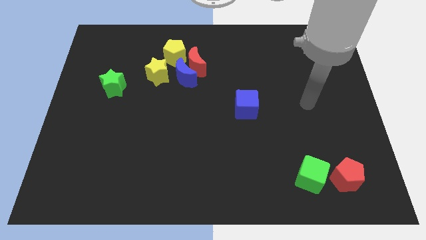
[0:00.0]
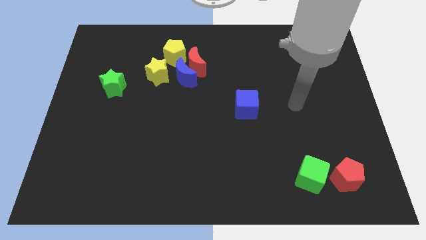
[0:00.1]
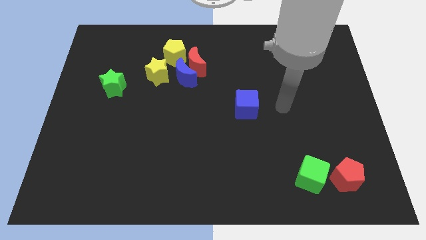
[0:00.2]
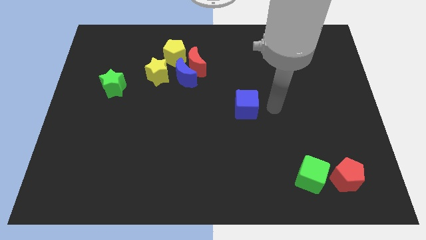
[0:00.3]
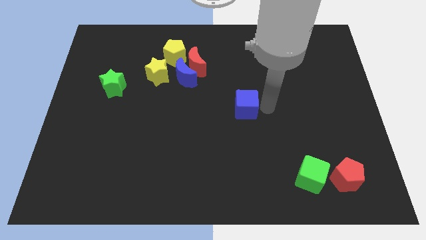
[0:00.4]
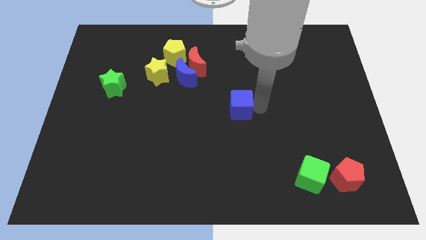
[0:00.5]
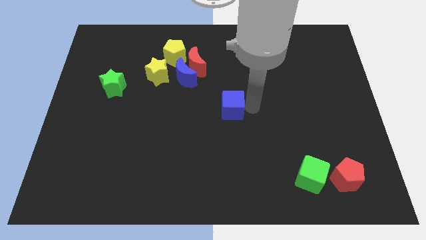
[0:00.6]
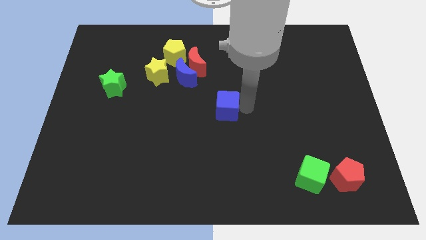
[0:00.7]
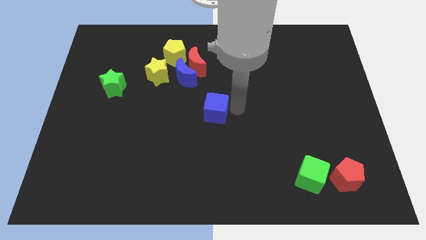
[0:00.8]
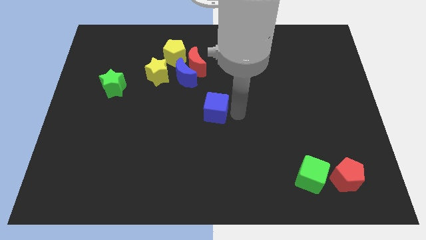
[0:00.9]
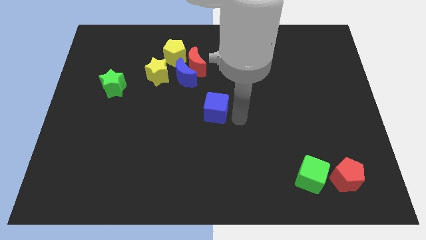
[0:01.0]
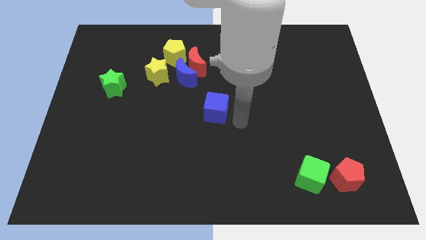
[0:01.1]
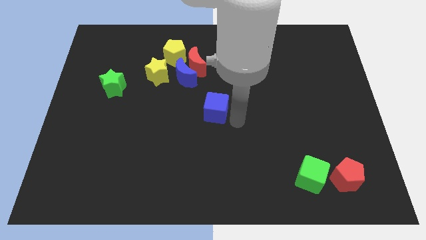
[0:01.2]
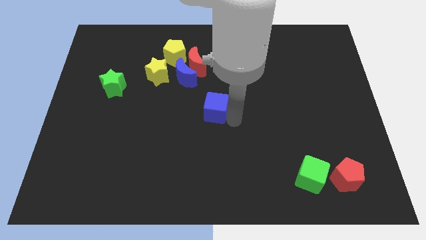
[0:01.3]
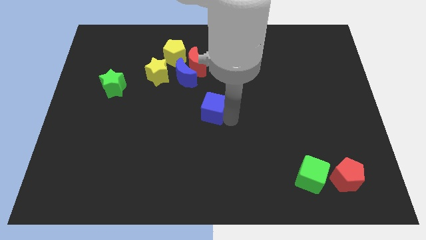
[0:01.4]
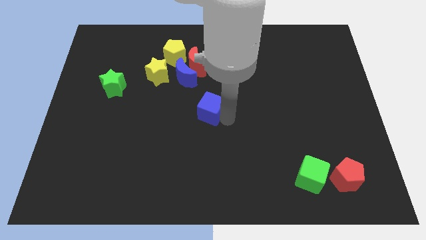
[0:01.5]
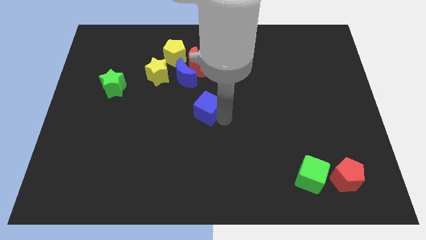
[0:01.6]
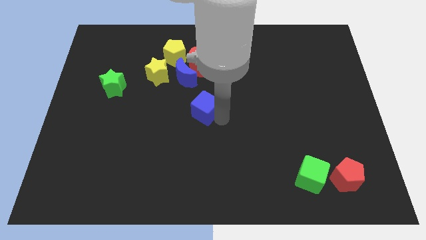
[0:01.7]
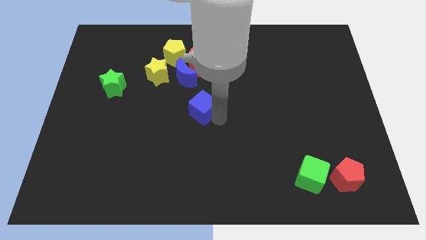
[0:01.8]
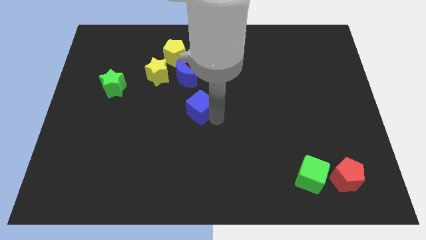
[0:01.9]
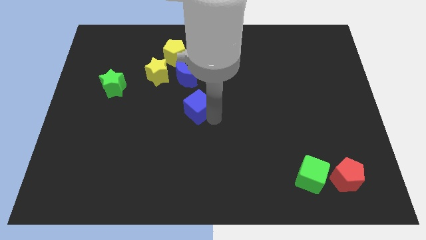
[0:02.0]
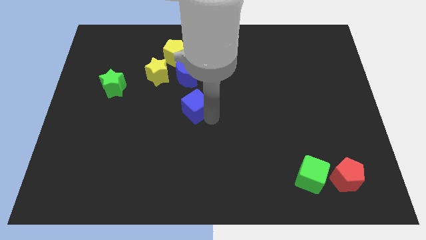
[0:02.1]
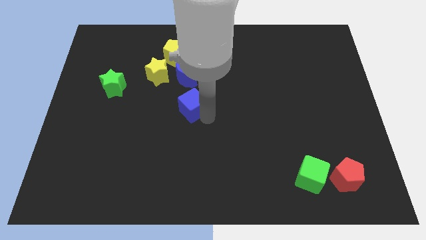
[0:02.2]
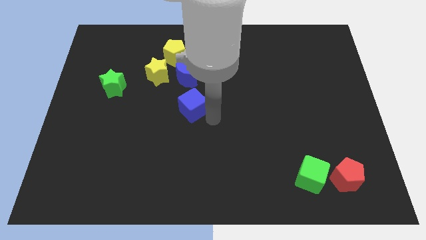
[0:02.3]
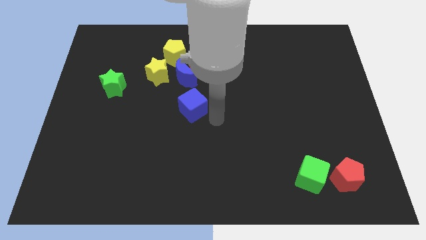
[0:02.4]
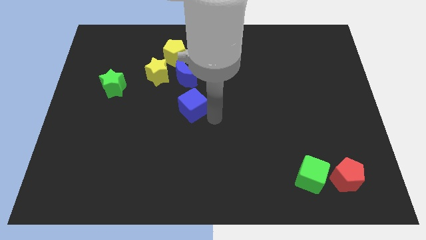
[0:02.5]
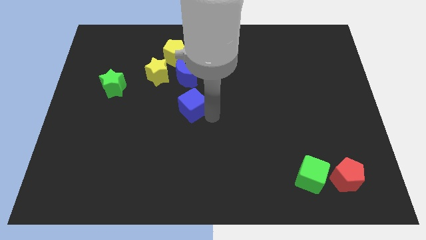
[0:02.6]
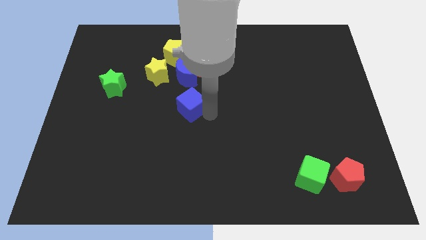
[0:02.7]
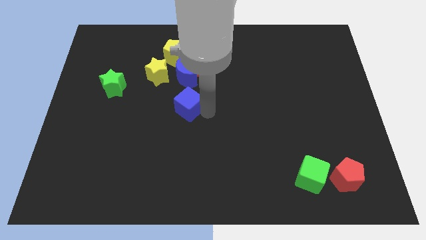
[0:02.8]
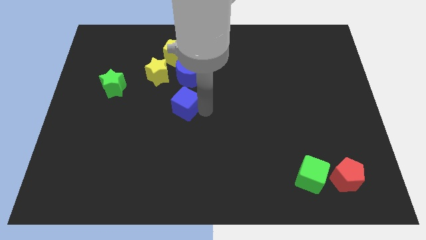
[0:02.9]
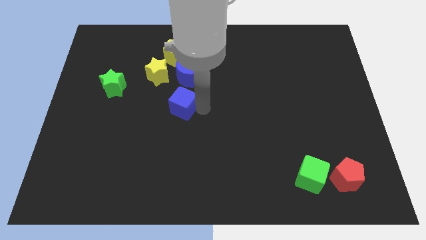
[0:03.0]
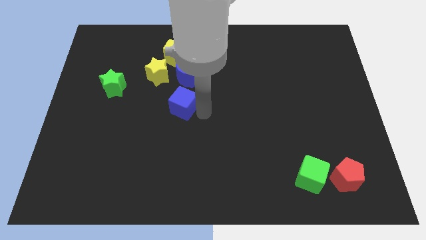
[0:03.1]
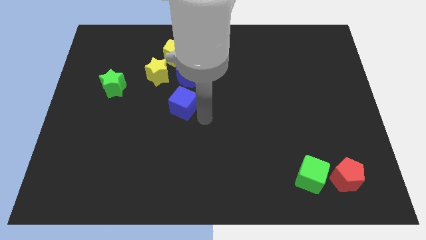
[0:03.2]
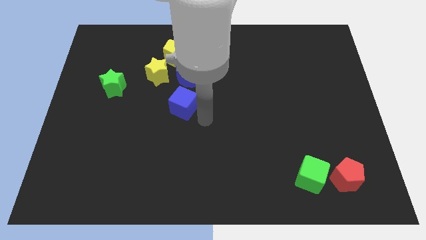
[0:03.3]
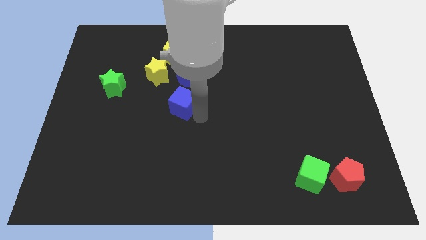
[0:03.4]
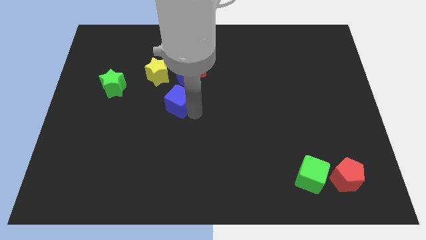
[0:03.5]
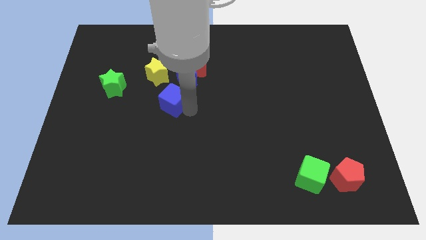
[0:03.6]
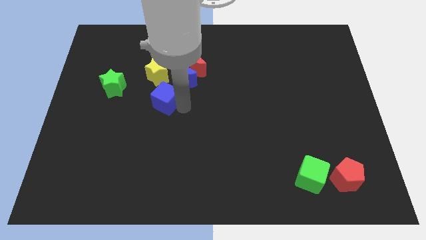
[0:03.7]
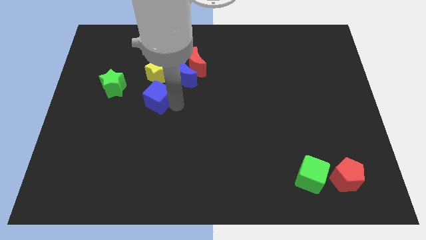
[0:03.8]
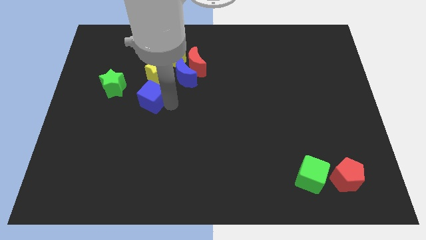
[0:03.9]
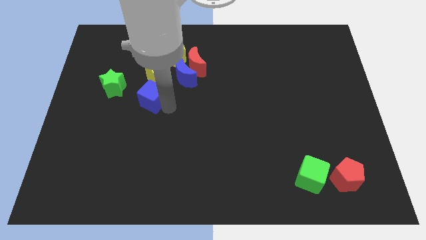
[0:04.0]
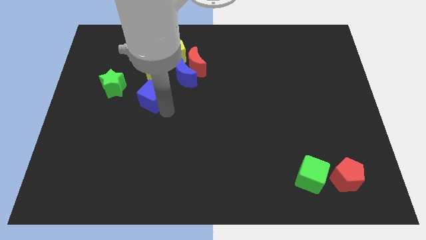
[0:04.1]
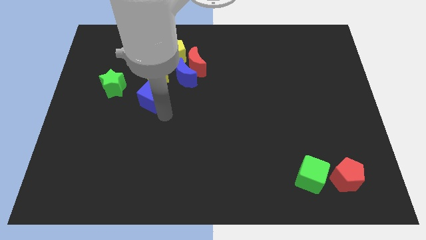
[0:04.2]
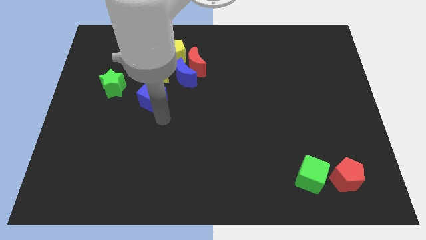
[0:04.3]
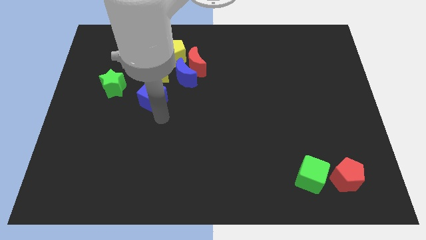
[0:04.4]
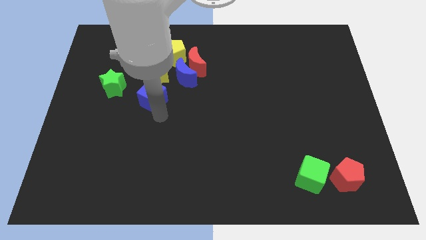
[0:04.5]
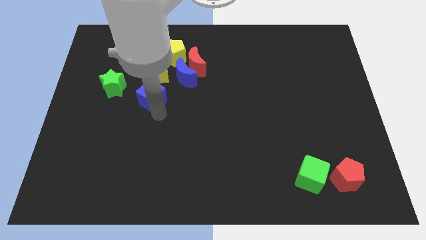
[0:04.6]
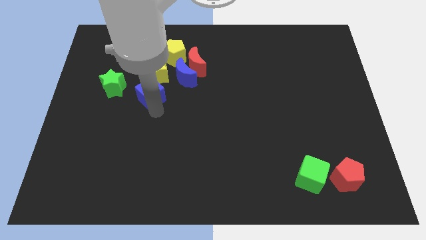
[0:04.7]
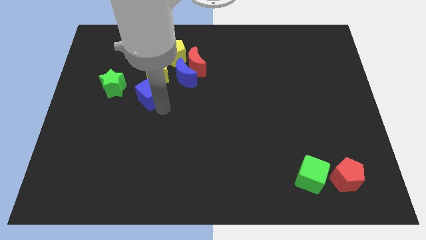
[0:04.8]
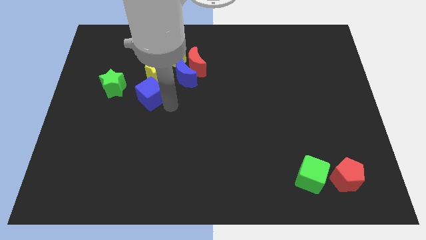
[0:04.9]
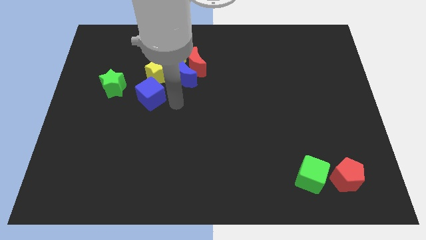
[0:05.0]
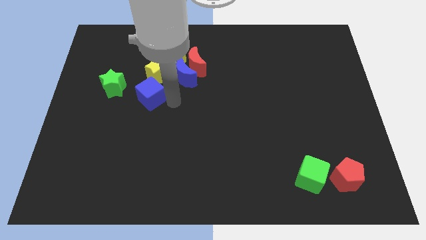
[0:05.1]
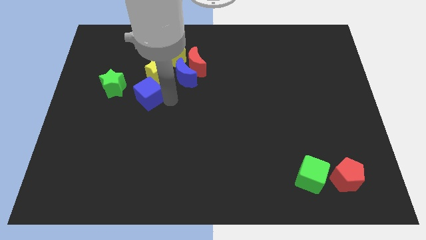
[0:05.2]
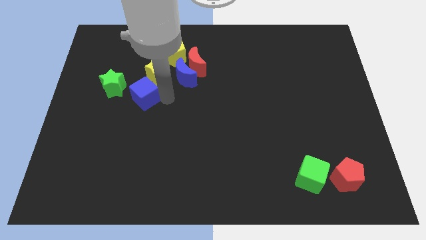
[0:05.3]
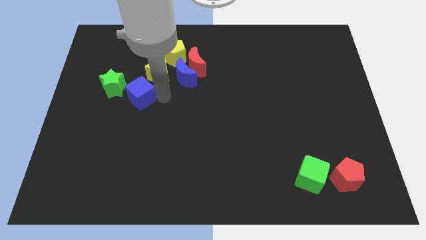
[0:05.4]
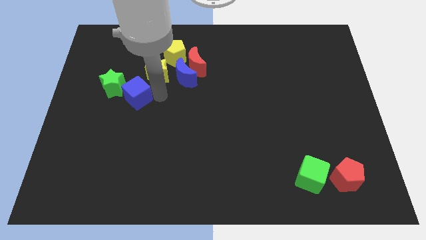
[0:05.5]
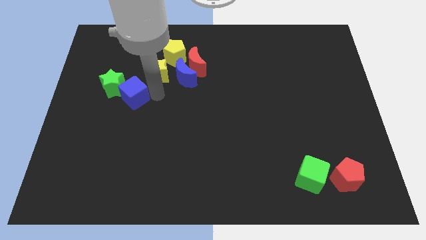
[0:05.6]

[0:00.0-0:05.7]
slide the blue cube next to the green star

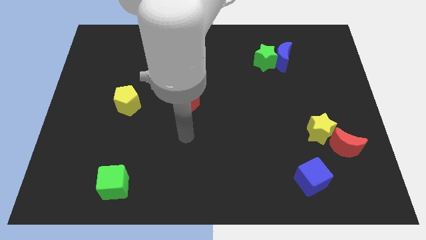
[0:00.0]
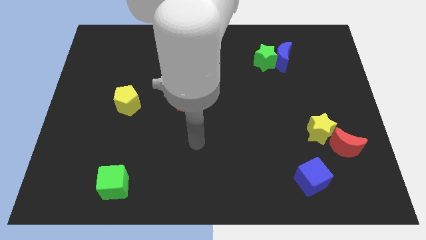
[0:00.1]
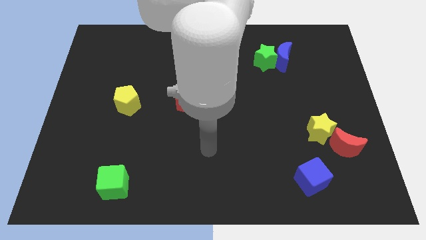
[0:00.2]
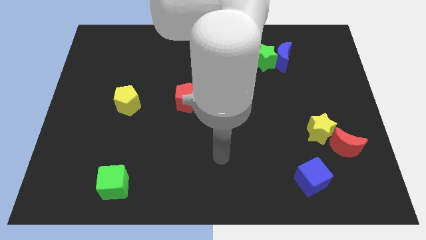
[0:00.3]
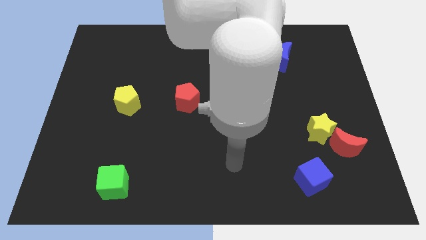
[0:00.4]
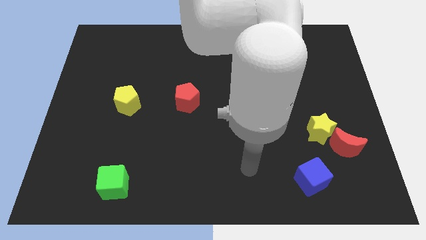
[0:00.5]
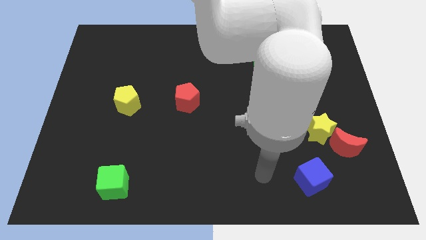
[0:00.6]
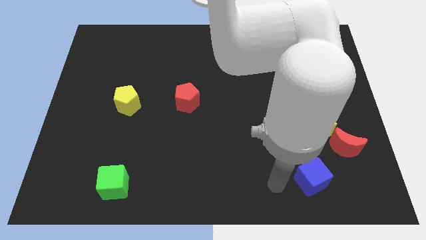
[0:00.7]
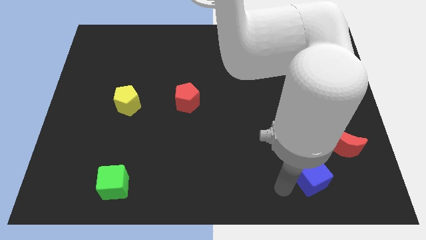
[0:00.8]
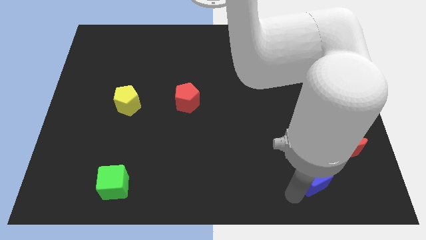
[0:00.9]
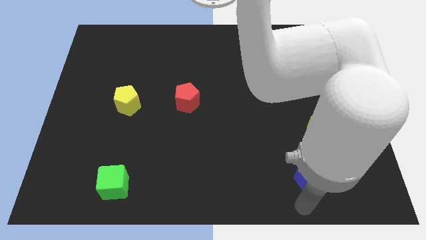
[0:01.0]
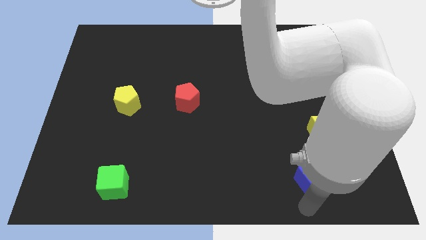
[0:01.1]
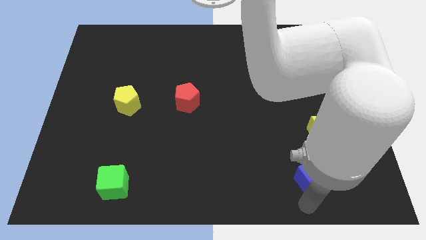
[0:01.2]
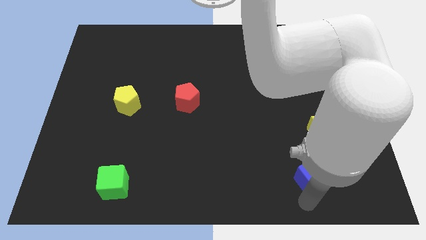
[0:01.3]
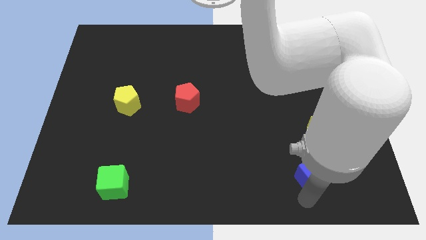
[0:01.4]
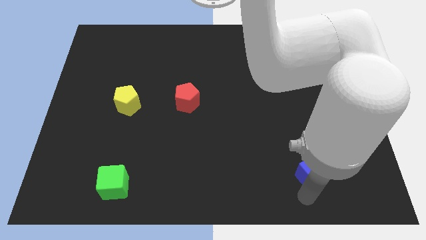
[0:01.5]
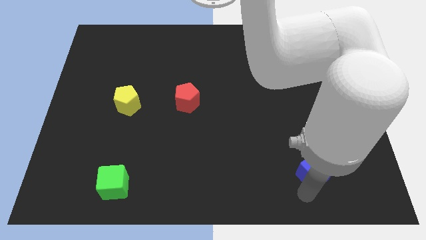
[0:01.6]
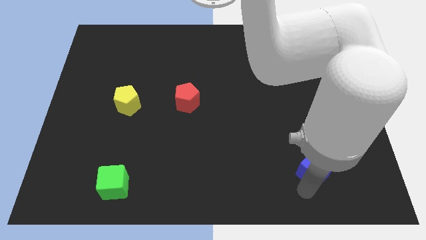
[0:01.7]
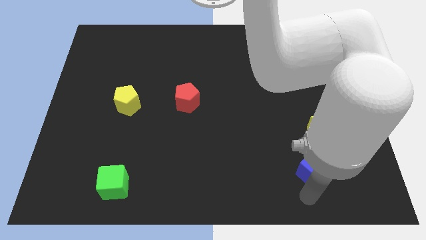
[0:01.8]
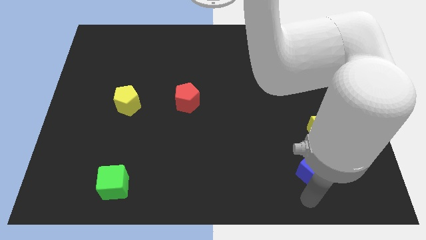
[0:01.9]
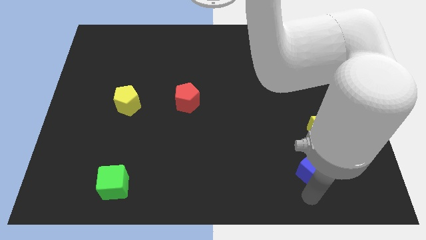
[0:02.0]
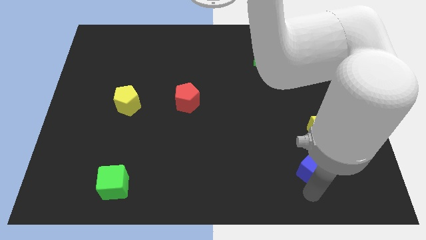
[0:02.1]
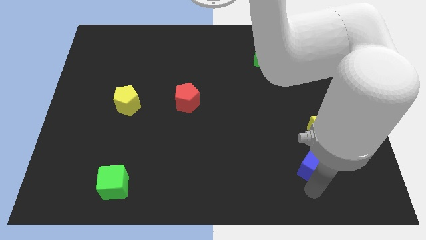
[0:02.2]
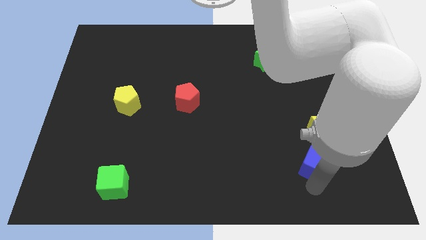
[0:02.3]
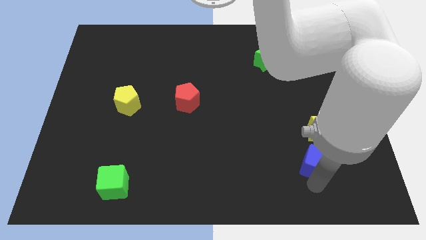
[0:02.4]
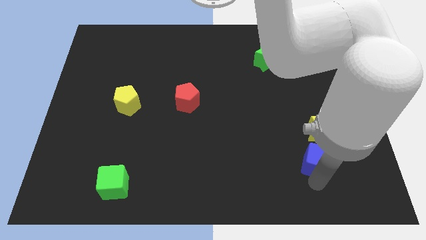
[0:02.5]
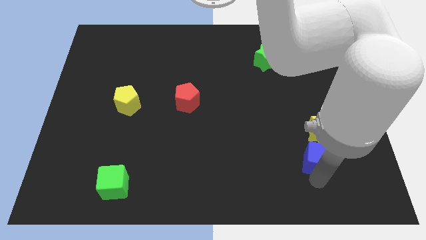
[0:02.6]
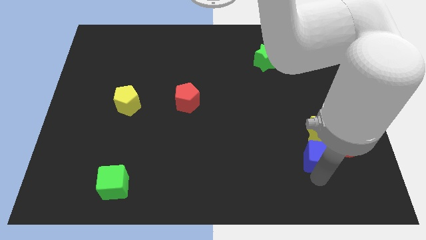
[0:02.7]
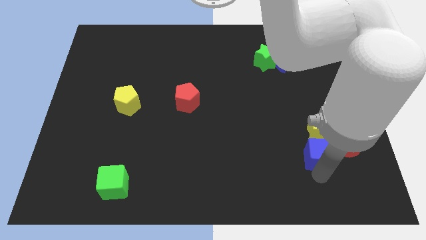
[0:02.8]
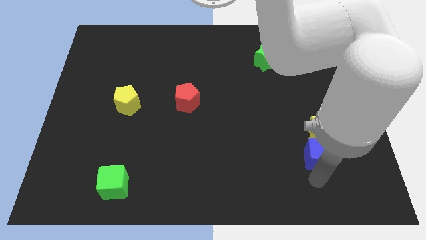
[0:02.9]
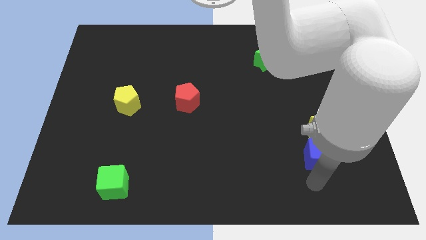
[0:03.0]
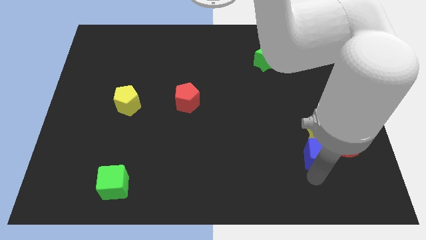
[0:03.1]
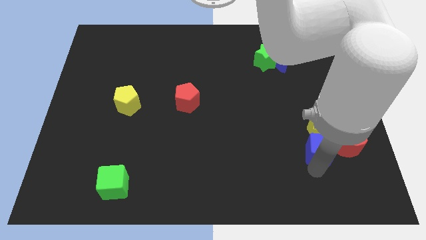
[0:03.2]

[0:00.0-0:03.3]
move the blue cube towards the yellow star
